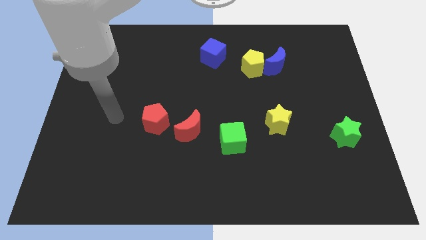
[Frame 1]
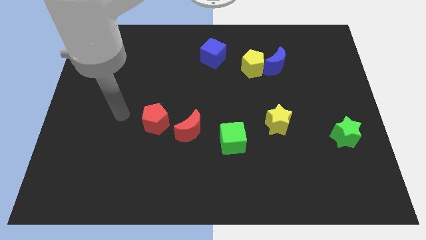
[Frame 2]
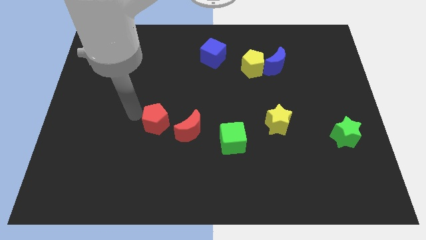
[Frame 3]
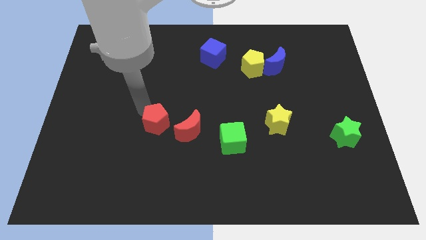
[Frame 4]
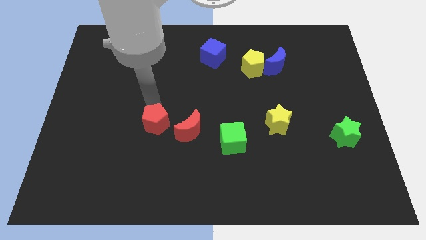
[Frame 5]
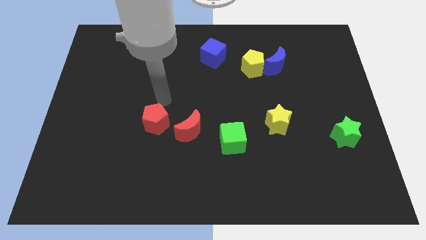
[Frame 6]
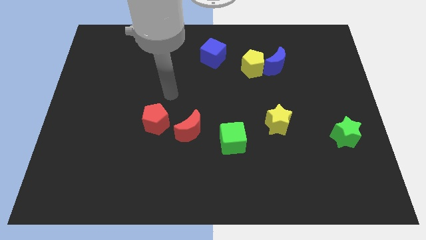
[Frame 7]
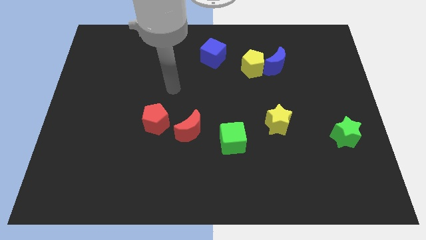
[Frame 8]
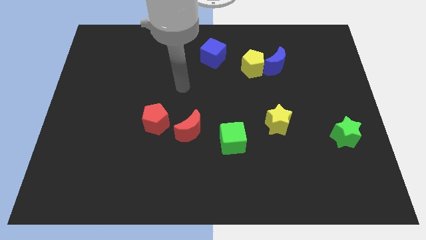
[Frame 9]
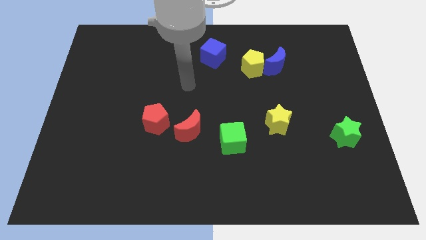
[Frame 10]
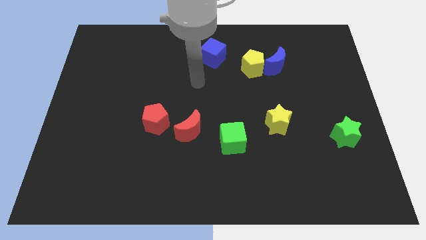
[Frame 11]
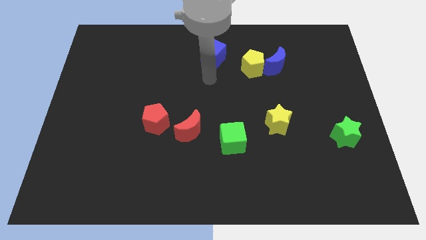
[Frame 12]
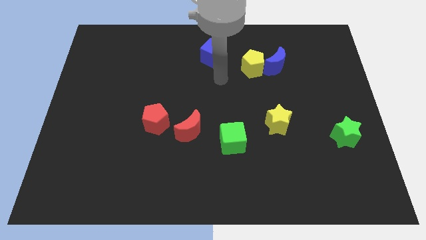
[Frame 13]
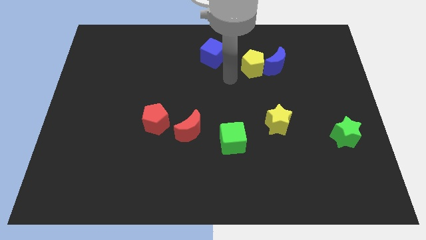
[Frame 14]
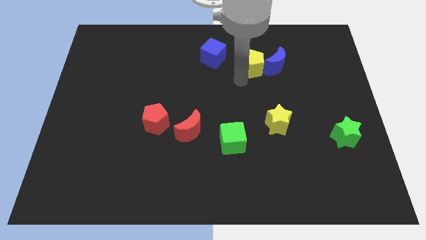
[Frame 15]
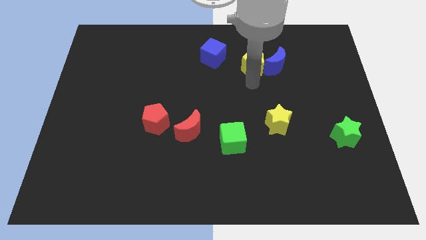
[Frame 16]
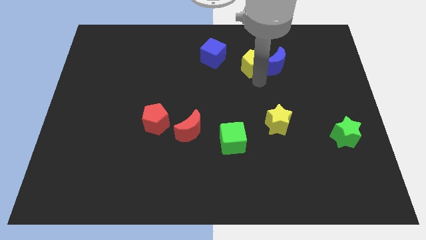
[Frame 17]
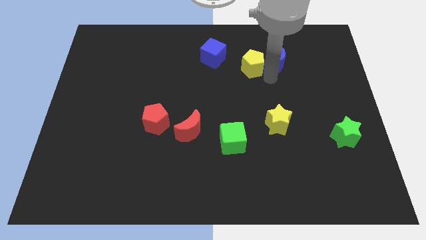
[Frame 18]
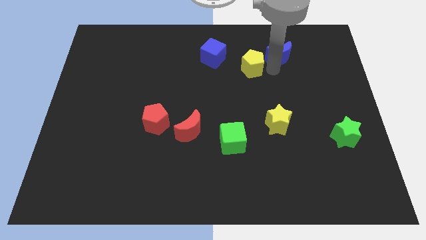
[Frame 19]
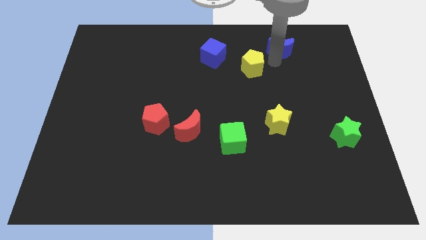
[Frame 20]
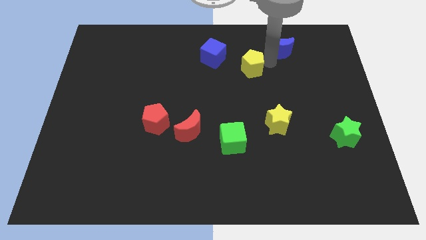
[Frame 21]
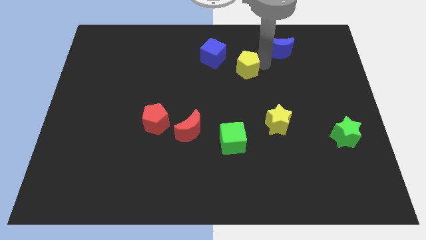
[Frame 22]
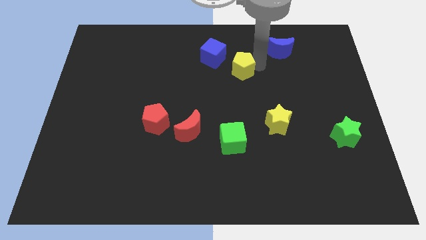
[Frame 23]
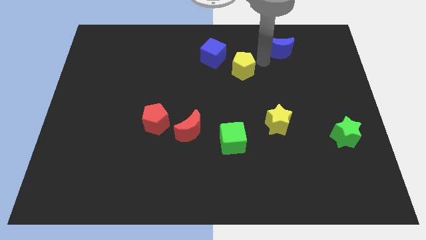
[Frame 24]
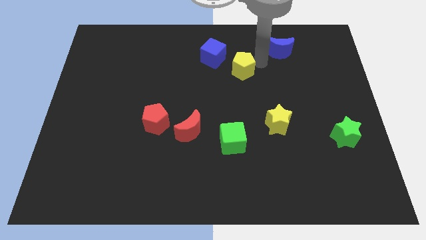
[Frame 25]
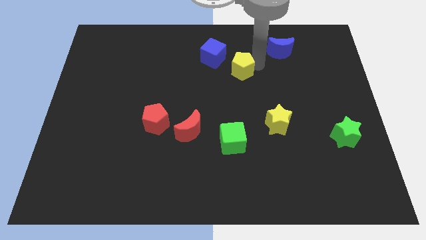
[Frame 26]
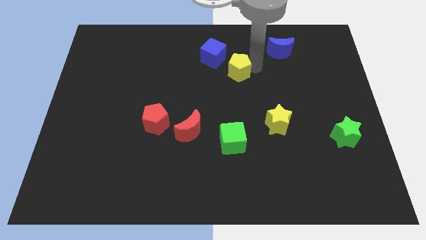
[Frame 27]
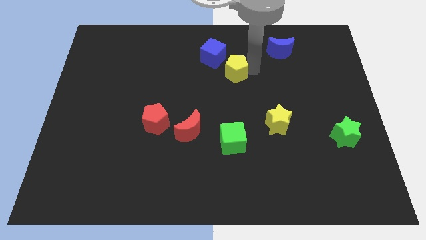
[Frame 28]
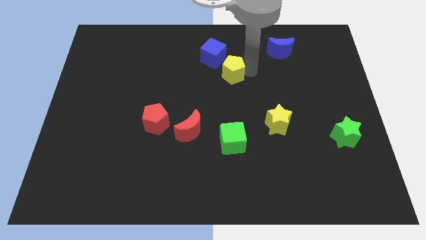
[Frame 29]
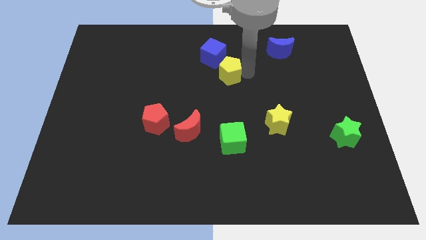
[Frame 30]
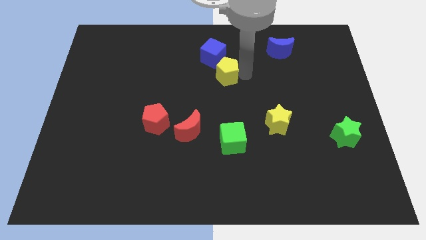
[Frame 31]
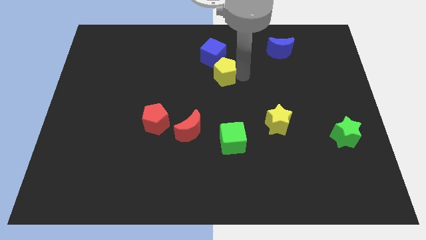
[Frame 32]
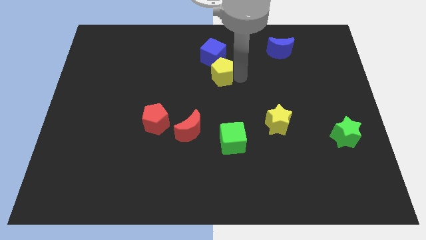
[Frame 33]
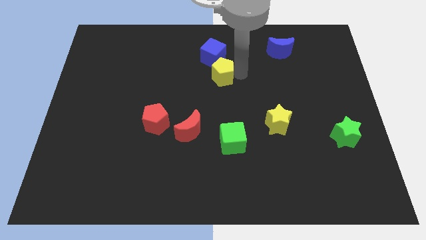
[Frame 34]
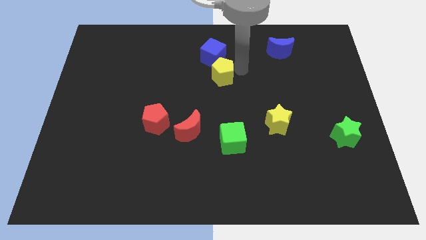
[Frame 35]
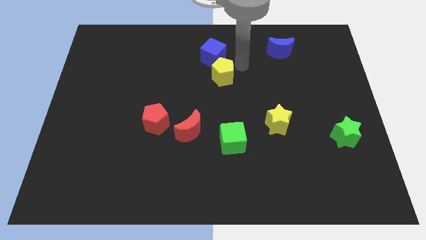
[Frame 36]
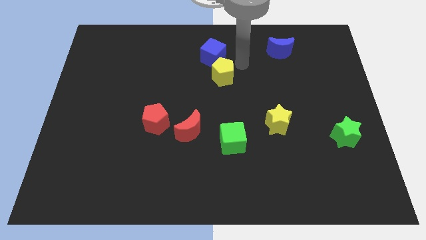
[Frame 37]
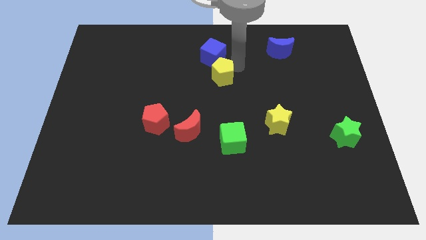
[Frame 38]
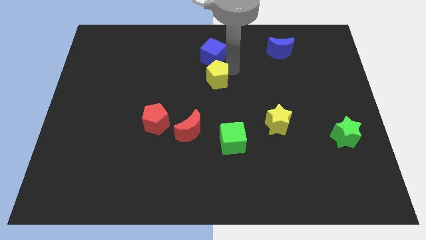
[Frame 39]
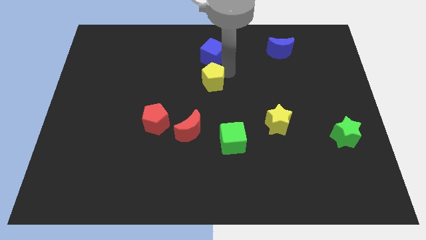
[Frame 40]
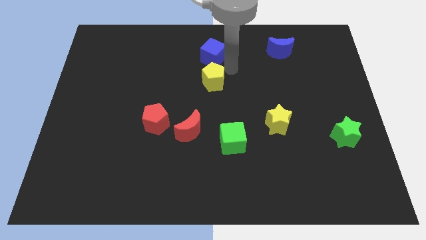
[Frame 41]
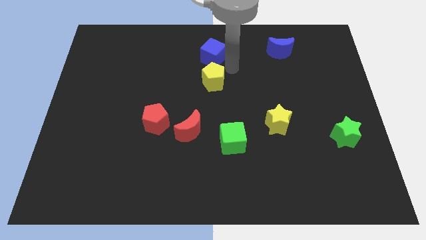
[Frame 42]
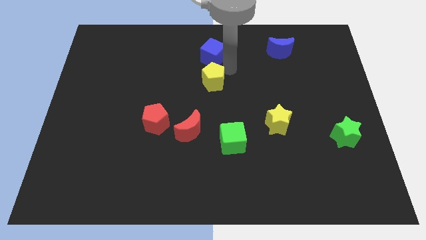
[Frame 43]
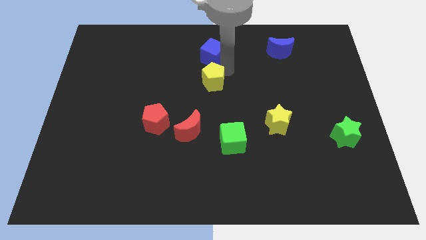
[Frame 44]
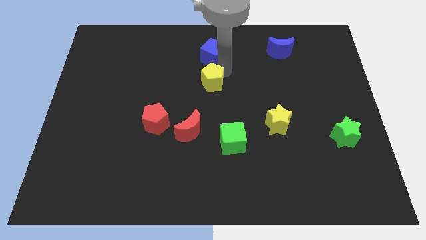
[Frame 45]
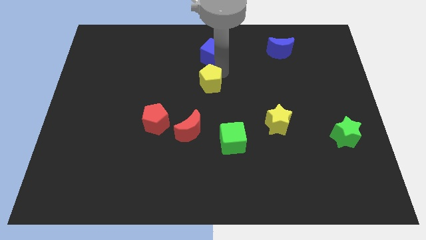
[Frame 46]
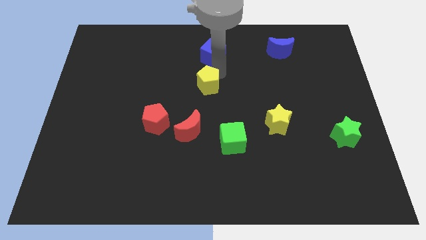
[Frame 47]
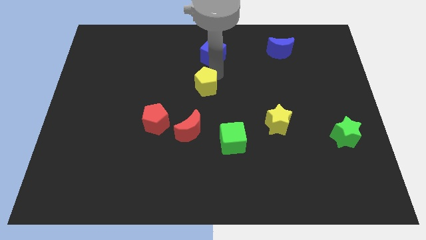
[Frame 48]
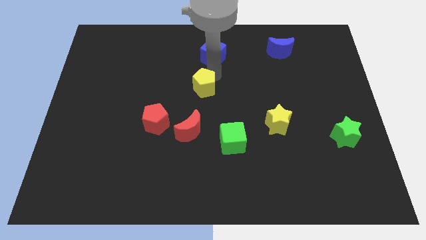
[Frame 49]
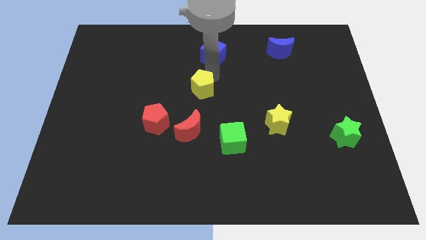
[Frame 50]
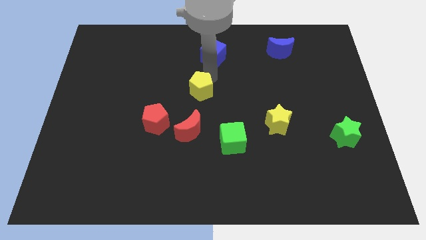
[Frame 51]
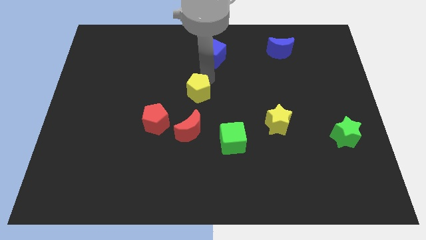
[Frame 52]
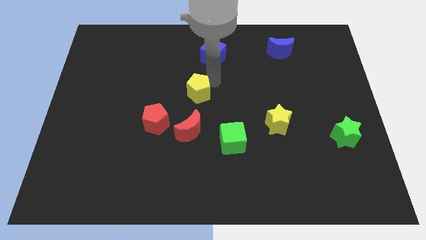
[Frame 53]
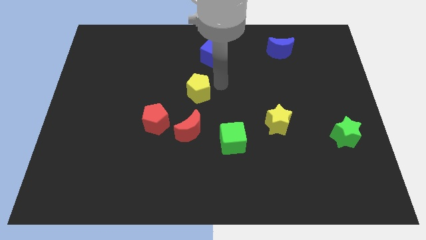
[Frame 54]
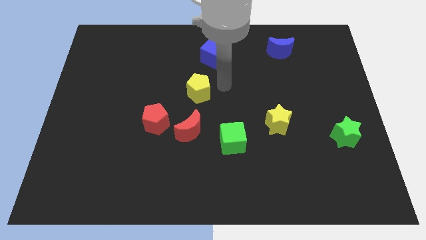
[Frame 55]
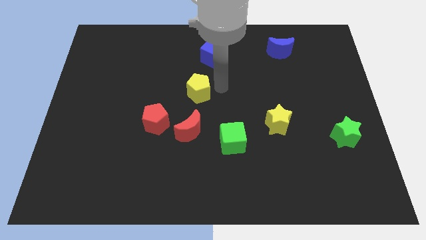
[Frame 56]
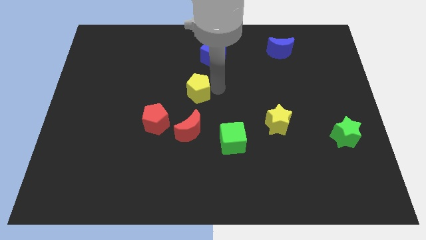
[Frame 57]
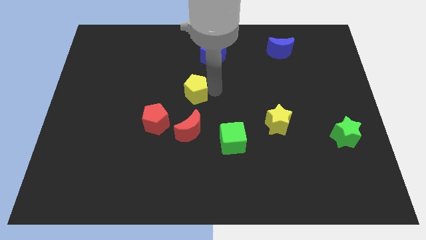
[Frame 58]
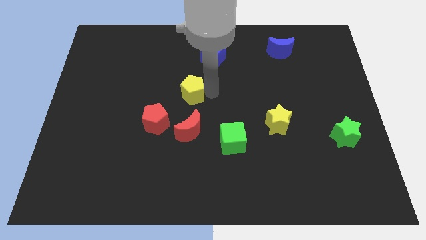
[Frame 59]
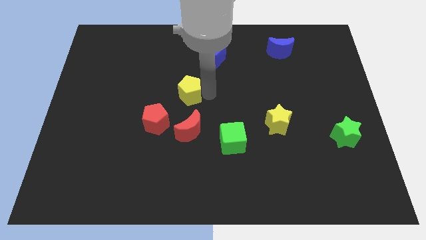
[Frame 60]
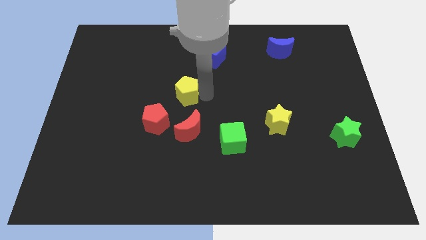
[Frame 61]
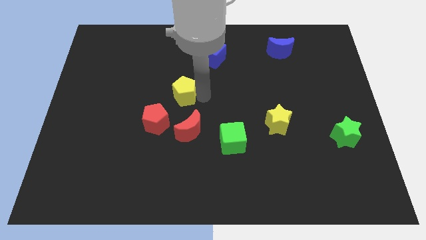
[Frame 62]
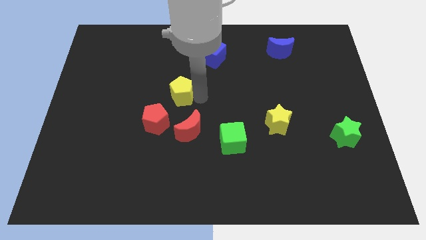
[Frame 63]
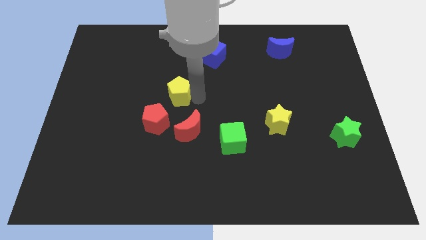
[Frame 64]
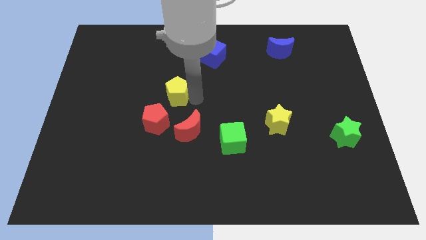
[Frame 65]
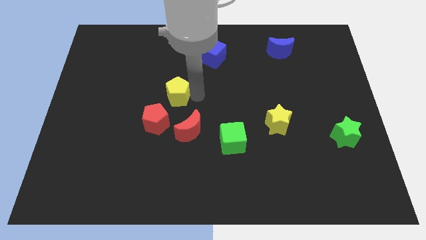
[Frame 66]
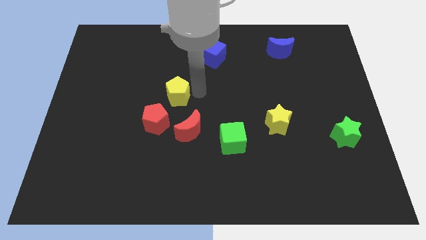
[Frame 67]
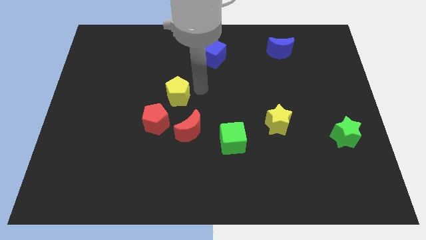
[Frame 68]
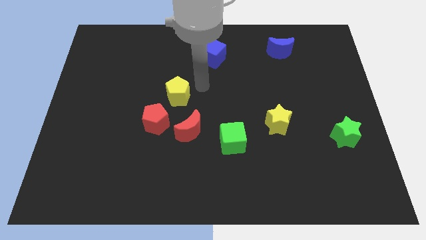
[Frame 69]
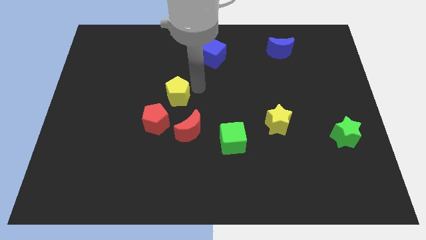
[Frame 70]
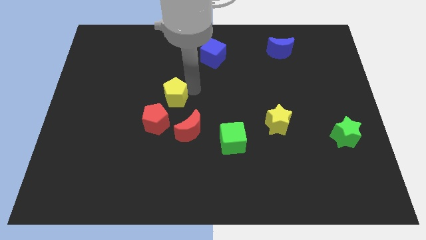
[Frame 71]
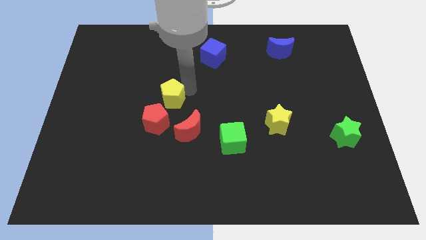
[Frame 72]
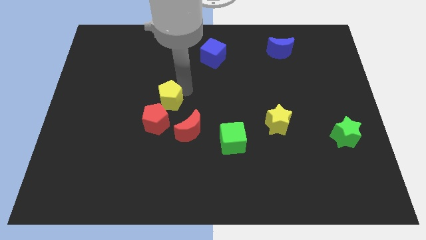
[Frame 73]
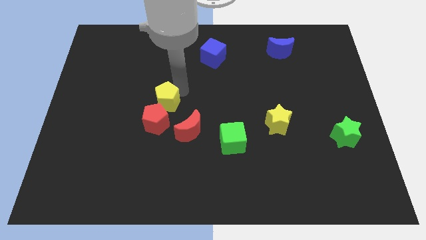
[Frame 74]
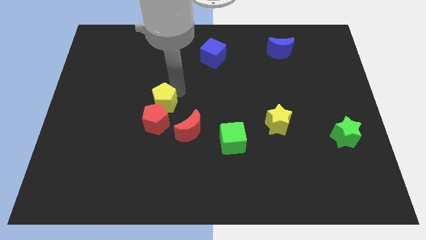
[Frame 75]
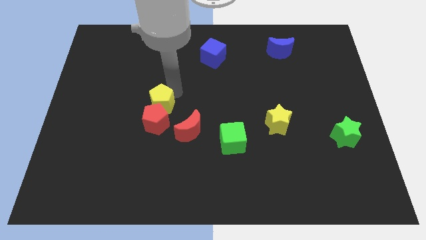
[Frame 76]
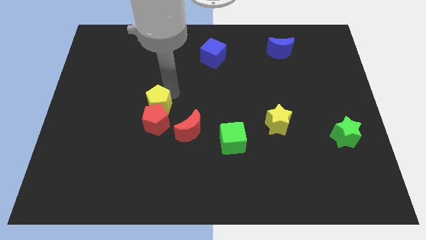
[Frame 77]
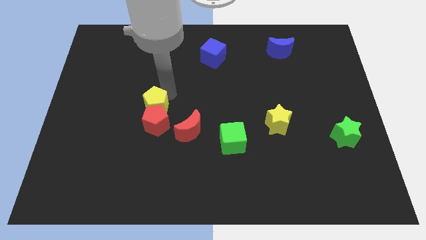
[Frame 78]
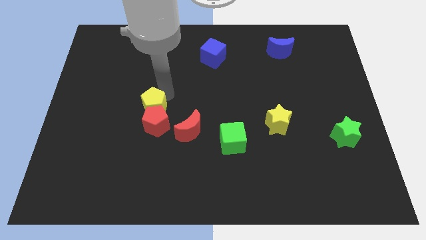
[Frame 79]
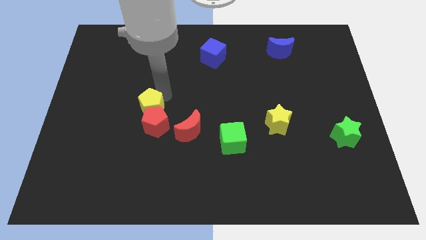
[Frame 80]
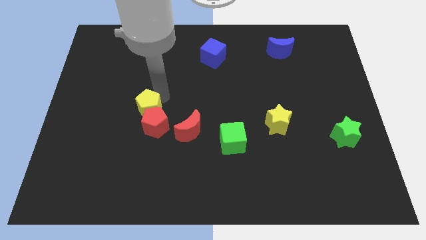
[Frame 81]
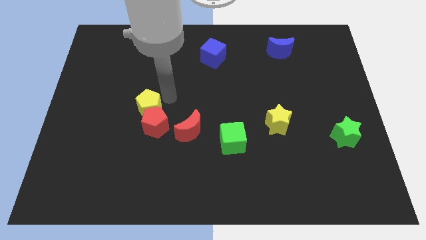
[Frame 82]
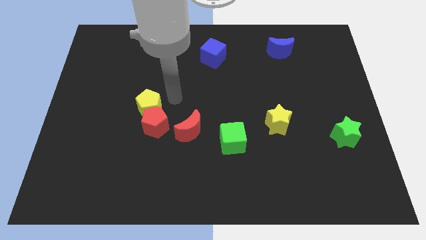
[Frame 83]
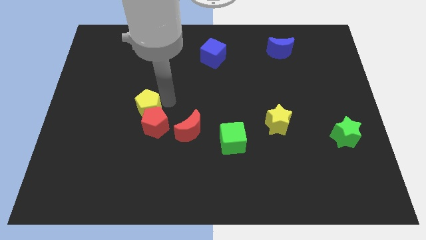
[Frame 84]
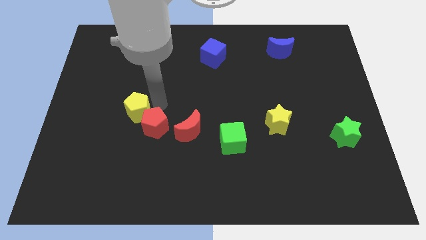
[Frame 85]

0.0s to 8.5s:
push the yellow pentagon to the left side of the red pentagon
